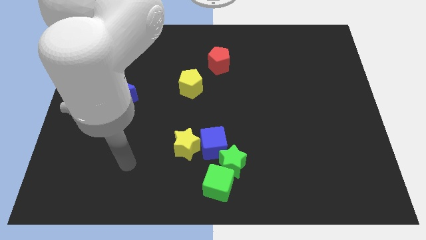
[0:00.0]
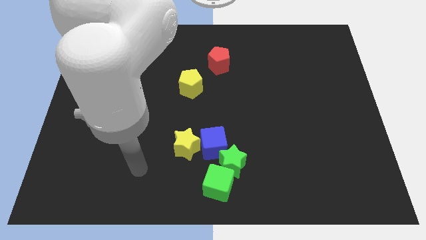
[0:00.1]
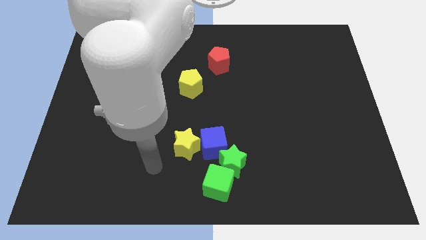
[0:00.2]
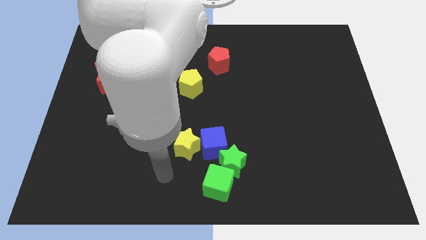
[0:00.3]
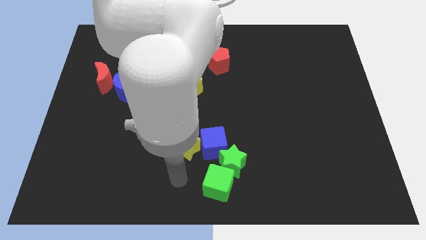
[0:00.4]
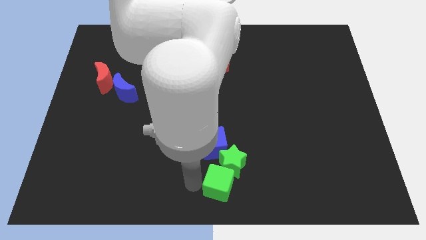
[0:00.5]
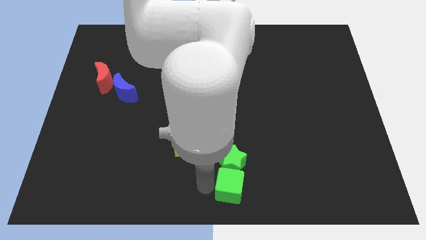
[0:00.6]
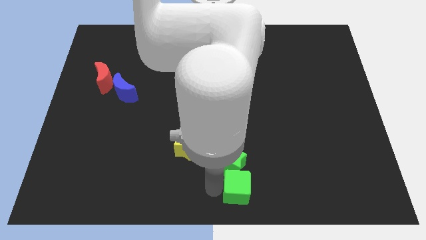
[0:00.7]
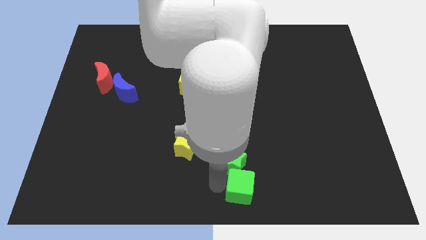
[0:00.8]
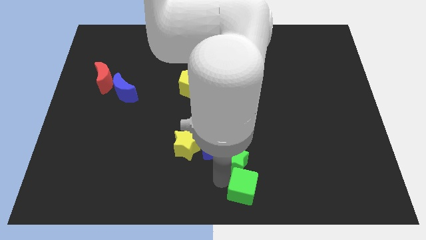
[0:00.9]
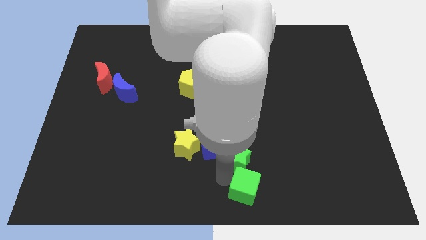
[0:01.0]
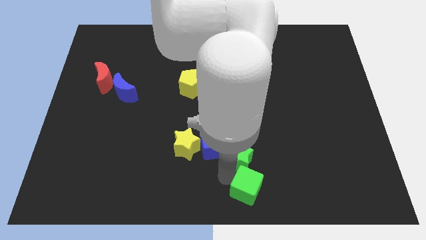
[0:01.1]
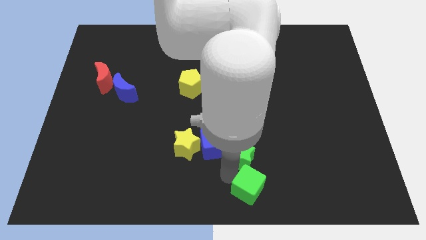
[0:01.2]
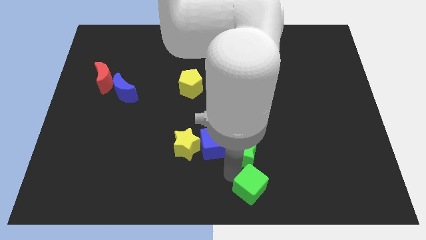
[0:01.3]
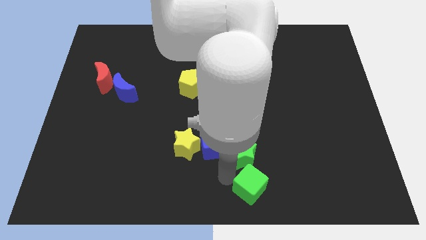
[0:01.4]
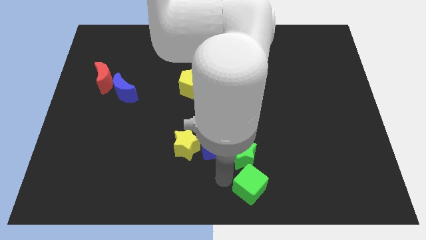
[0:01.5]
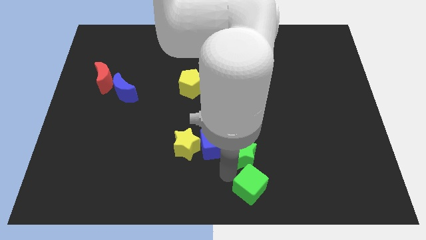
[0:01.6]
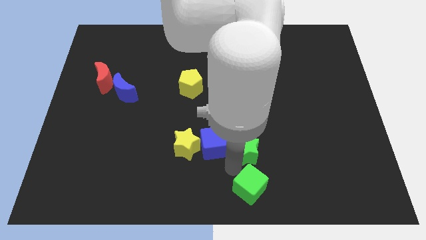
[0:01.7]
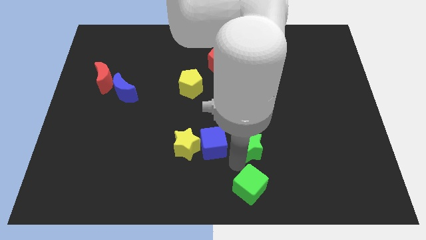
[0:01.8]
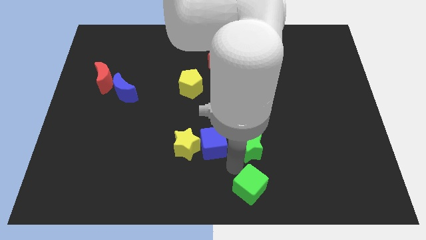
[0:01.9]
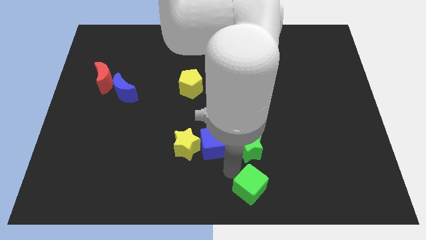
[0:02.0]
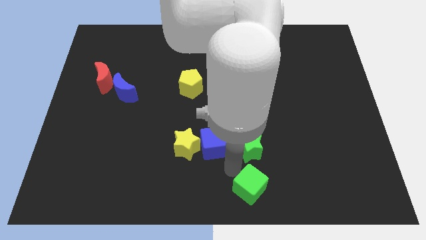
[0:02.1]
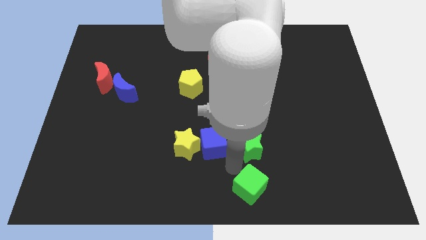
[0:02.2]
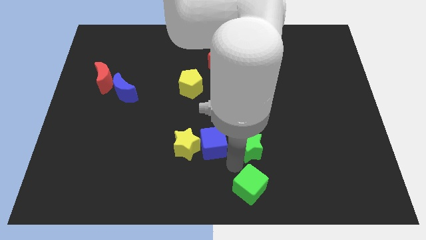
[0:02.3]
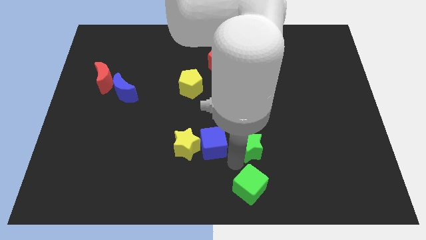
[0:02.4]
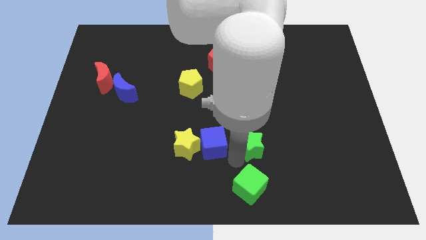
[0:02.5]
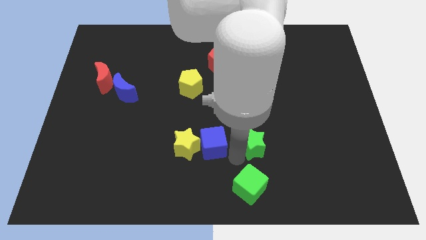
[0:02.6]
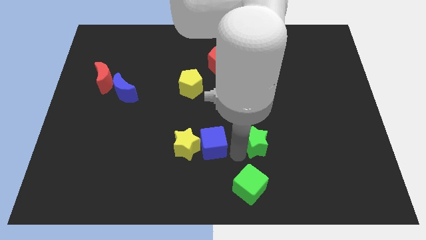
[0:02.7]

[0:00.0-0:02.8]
move the green star slightly up and to the right diagonally

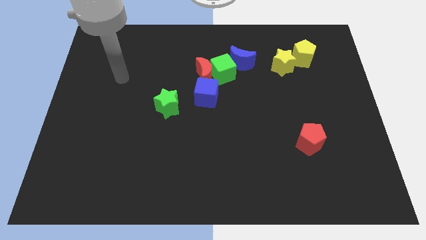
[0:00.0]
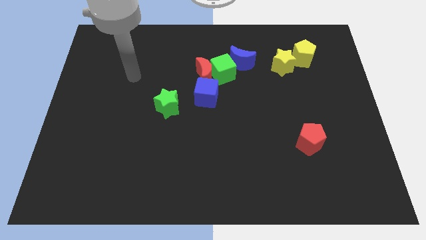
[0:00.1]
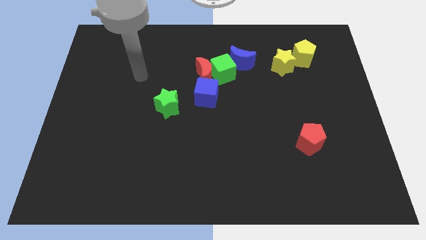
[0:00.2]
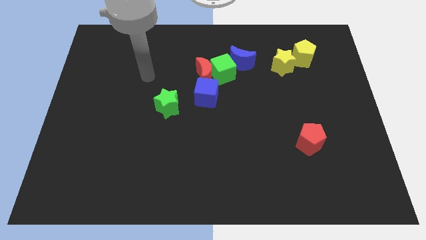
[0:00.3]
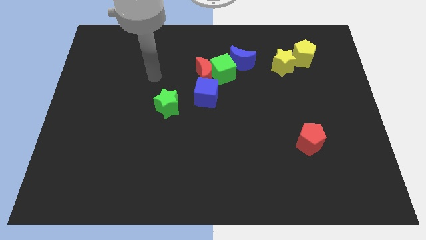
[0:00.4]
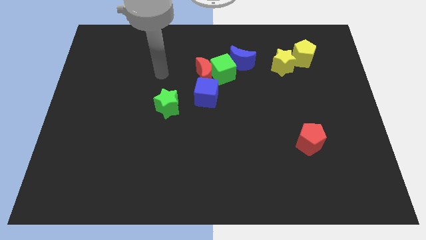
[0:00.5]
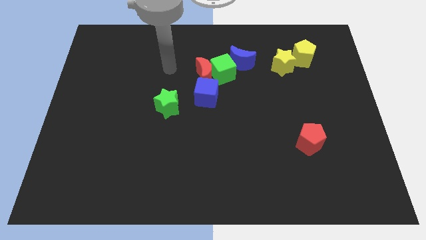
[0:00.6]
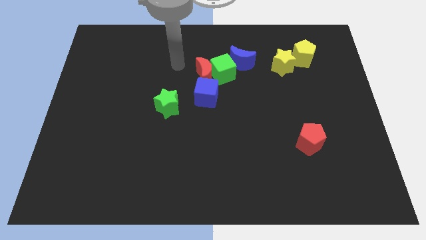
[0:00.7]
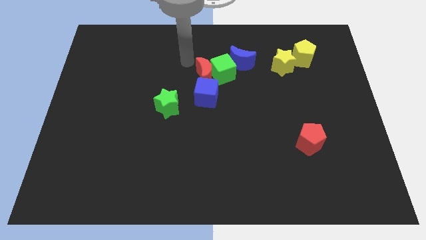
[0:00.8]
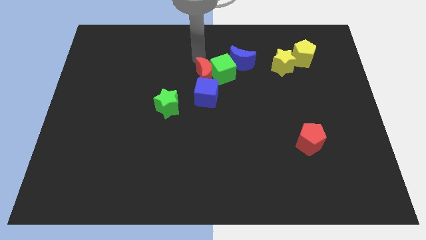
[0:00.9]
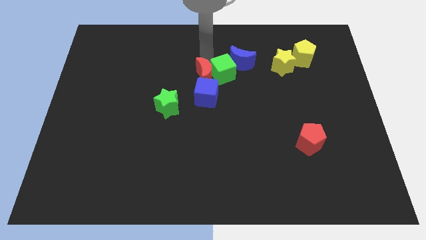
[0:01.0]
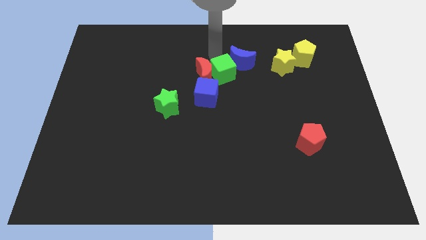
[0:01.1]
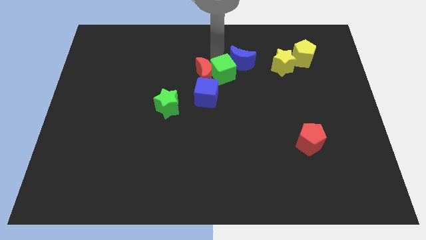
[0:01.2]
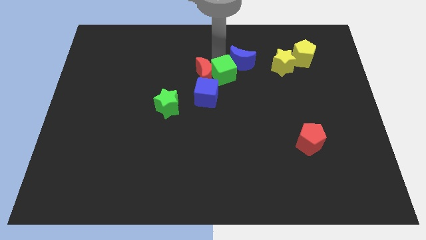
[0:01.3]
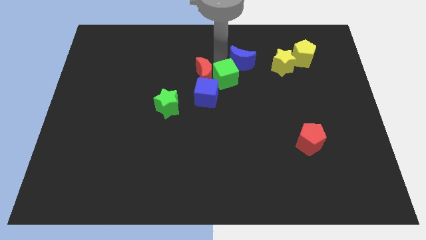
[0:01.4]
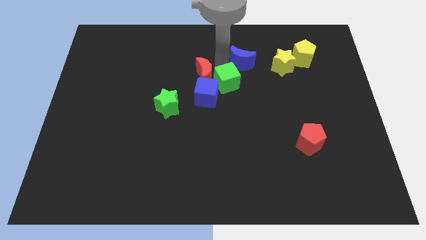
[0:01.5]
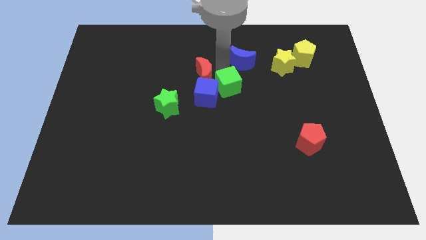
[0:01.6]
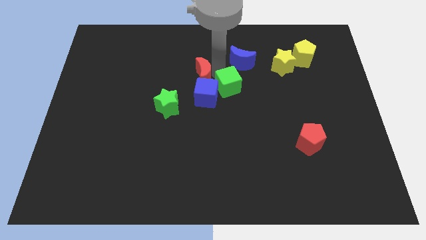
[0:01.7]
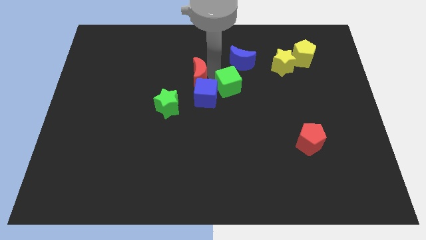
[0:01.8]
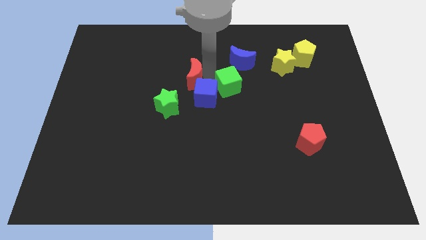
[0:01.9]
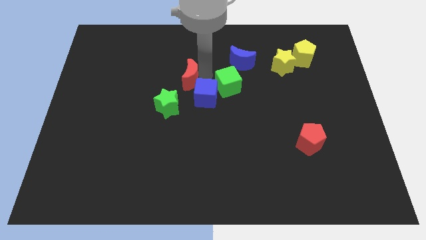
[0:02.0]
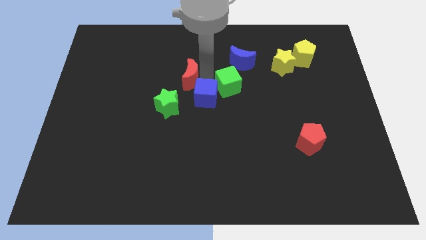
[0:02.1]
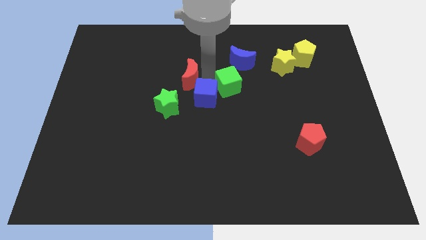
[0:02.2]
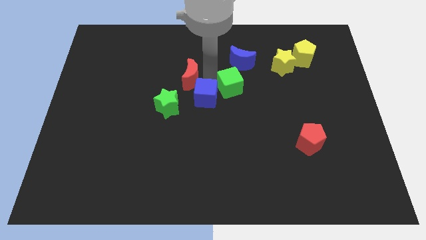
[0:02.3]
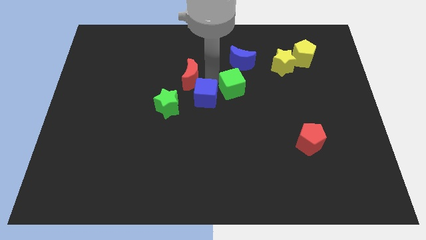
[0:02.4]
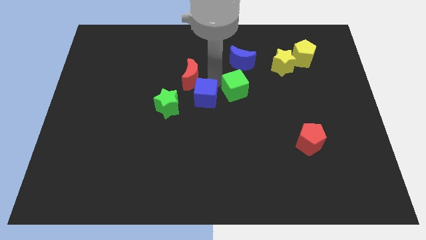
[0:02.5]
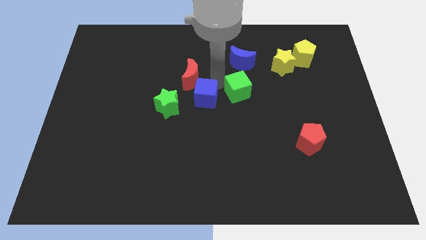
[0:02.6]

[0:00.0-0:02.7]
slightly slide the green cube down and right

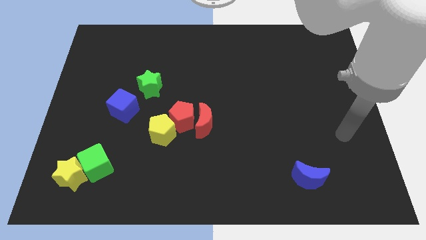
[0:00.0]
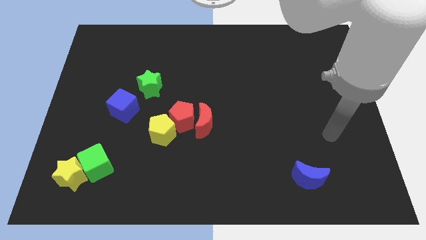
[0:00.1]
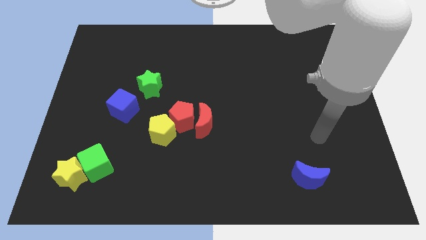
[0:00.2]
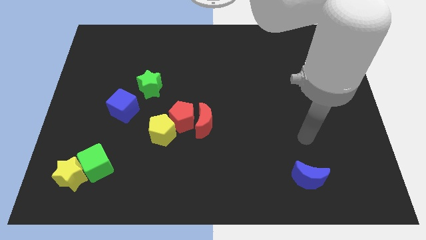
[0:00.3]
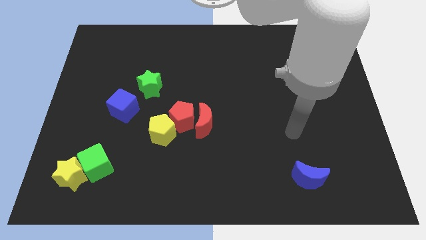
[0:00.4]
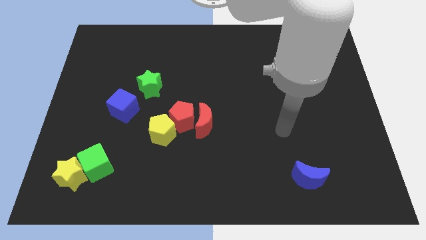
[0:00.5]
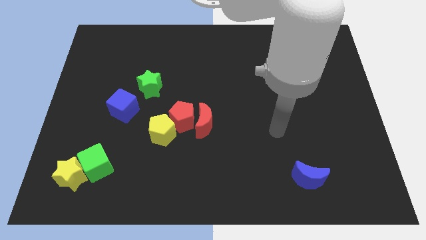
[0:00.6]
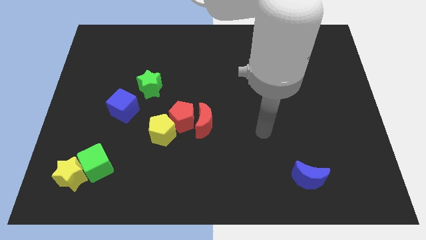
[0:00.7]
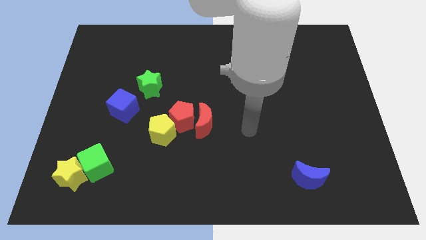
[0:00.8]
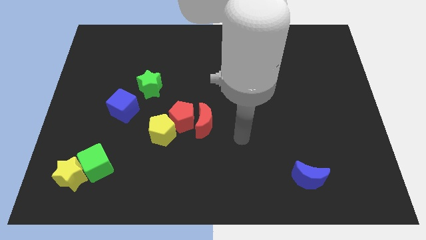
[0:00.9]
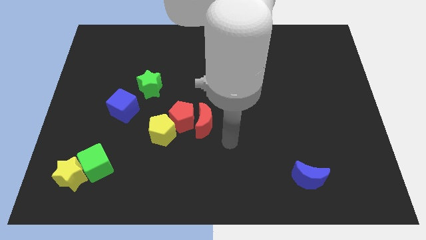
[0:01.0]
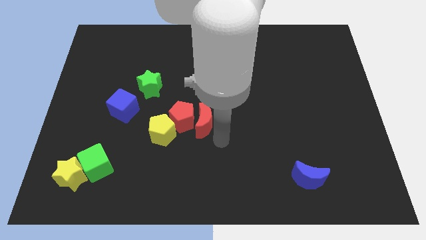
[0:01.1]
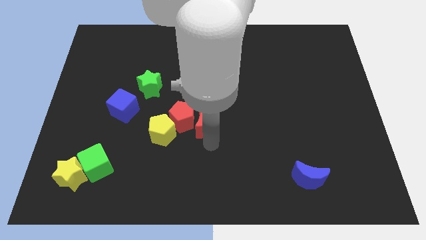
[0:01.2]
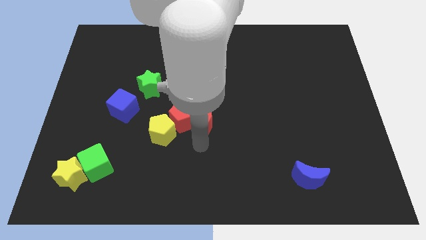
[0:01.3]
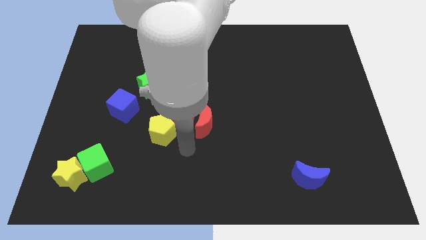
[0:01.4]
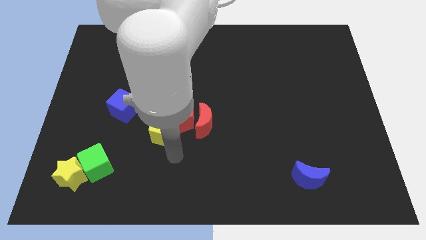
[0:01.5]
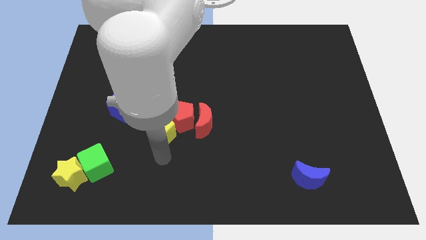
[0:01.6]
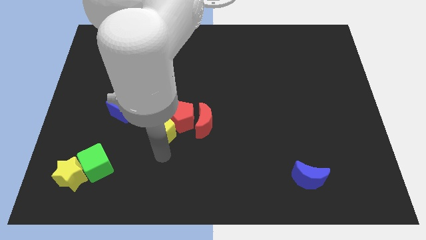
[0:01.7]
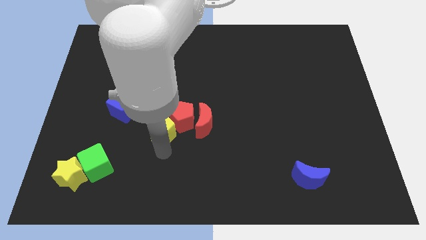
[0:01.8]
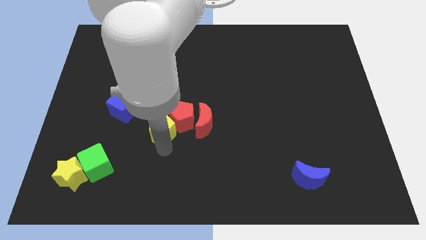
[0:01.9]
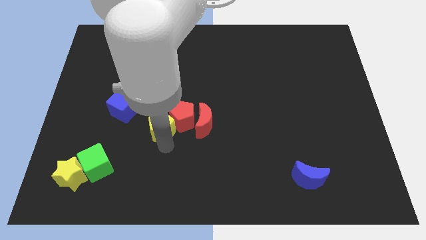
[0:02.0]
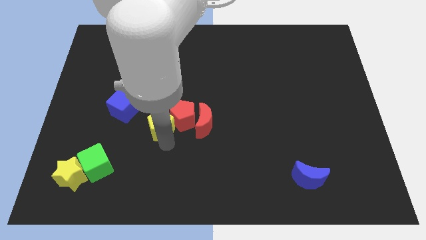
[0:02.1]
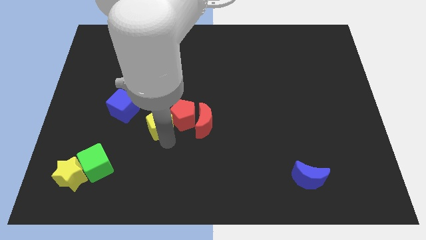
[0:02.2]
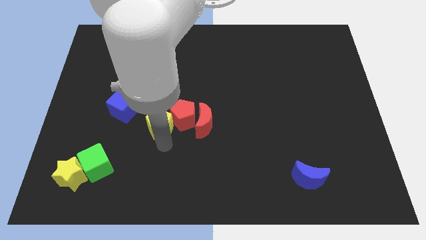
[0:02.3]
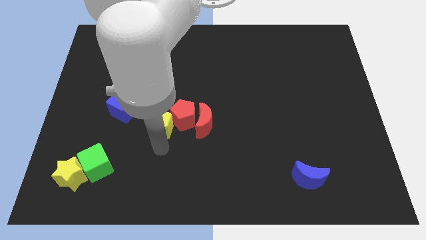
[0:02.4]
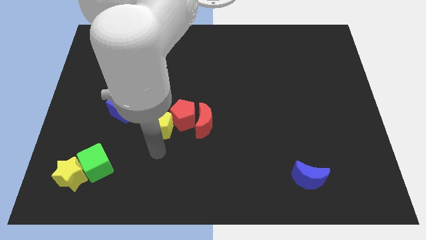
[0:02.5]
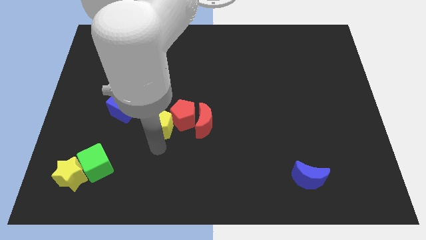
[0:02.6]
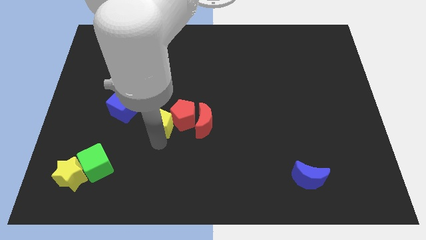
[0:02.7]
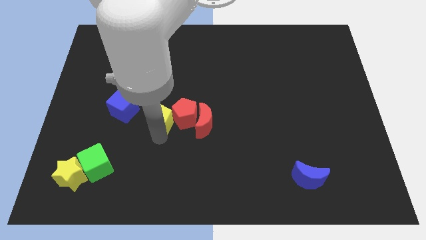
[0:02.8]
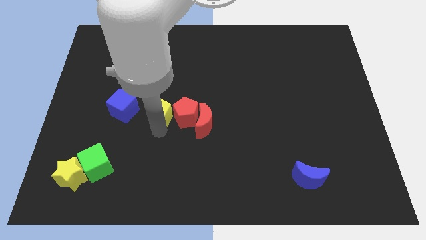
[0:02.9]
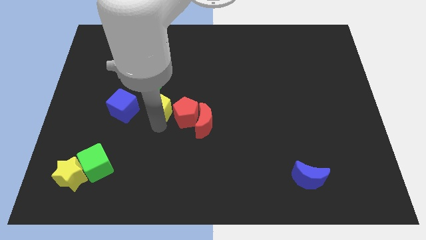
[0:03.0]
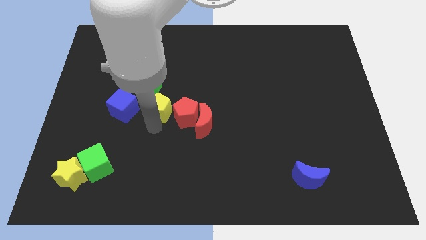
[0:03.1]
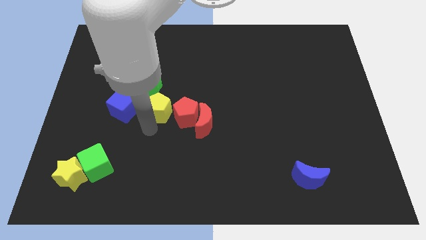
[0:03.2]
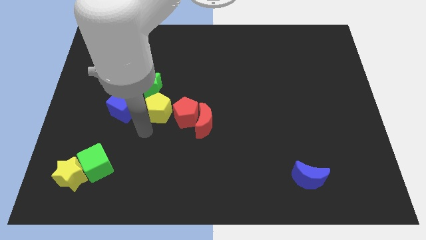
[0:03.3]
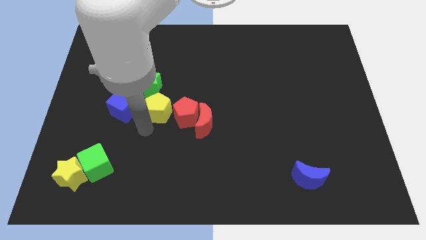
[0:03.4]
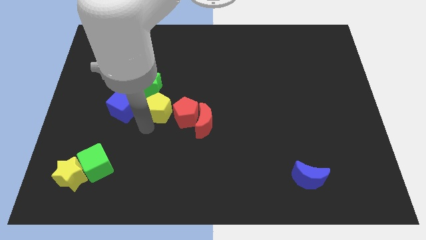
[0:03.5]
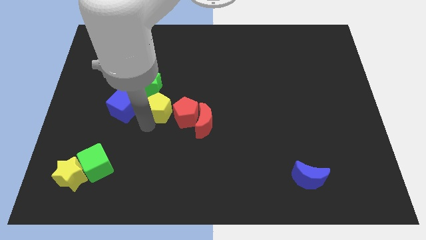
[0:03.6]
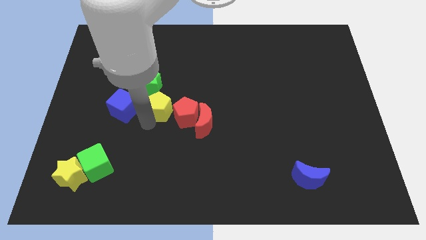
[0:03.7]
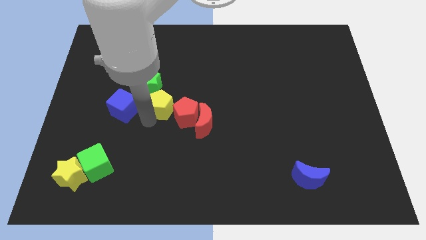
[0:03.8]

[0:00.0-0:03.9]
push the yellow pentagon a little bit upwards
